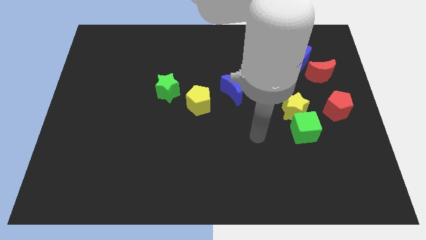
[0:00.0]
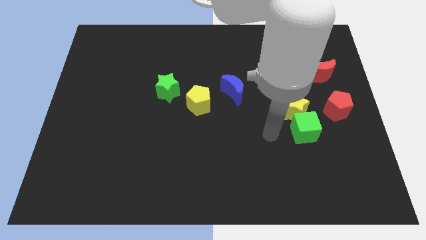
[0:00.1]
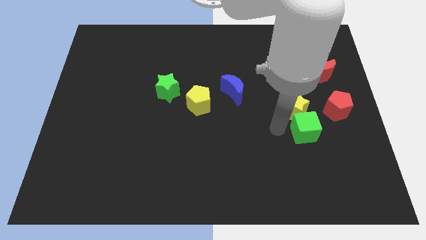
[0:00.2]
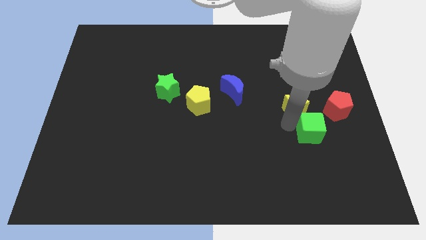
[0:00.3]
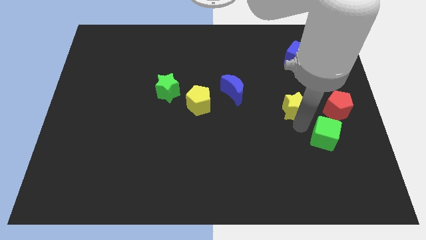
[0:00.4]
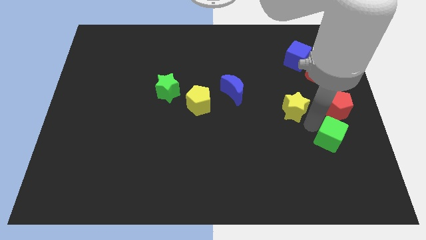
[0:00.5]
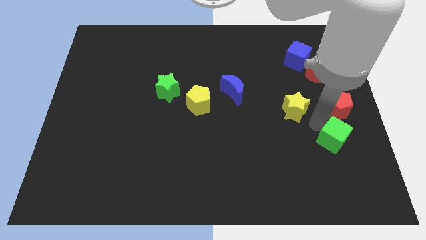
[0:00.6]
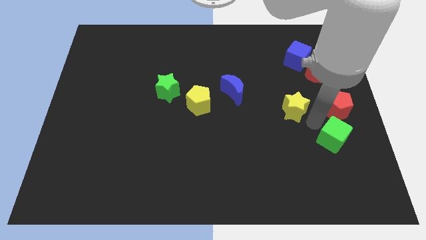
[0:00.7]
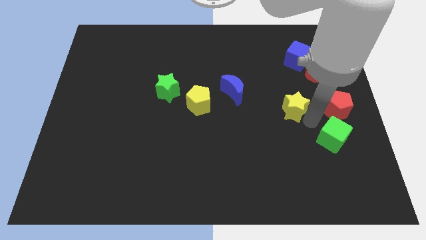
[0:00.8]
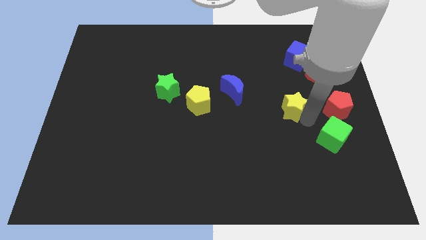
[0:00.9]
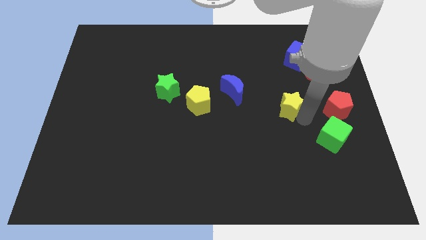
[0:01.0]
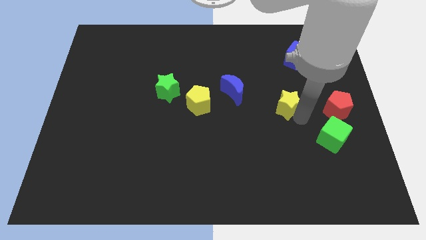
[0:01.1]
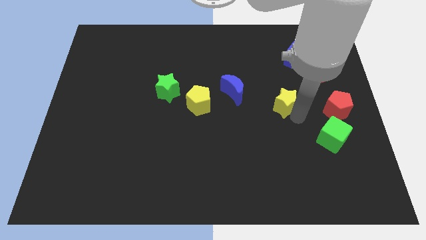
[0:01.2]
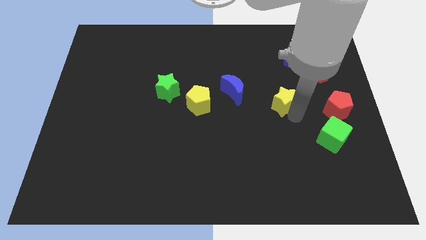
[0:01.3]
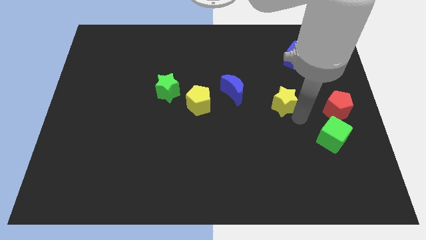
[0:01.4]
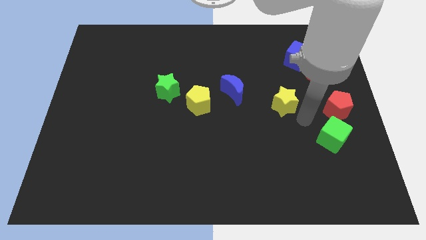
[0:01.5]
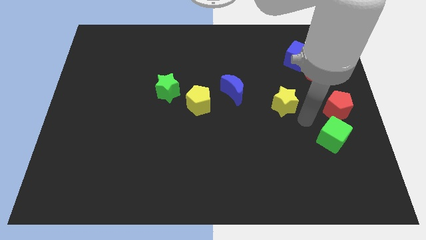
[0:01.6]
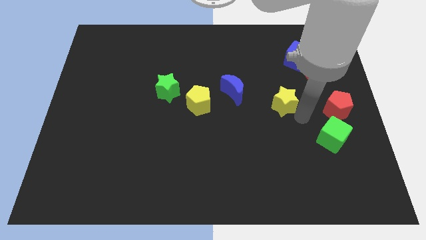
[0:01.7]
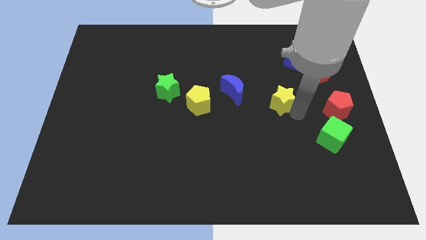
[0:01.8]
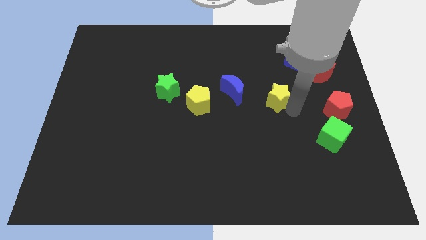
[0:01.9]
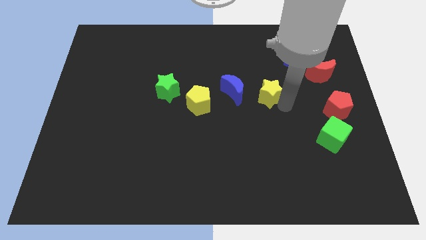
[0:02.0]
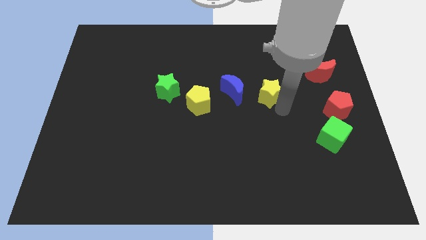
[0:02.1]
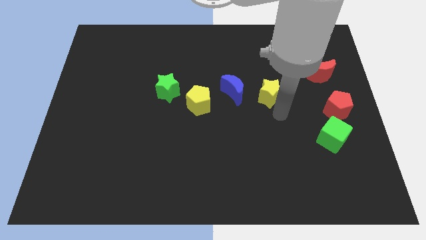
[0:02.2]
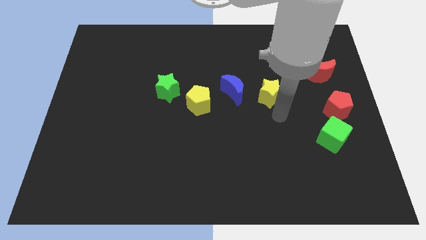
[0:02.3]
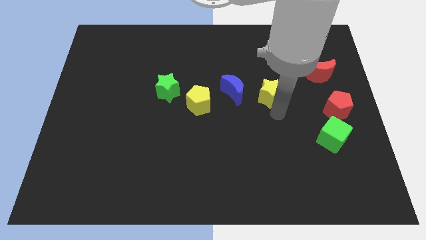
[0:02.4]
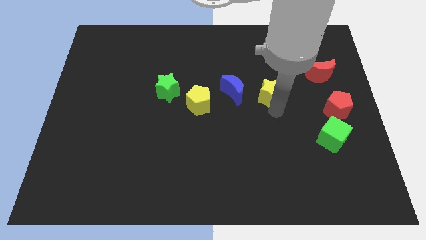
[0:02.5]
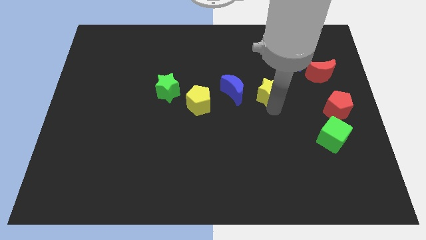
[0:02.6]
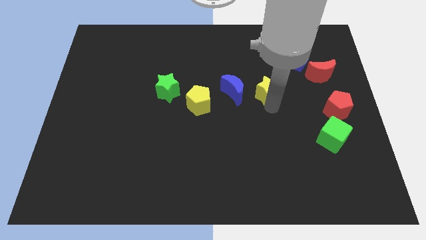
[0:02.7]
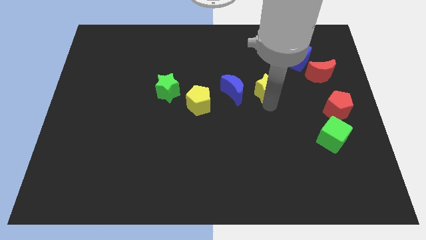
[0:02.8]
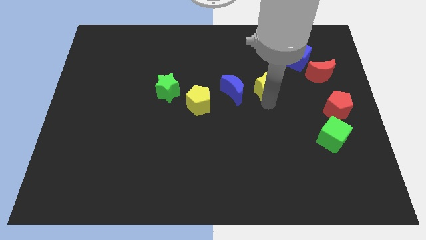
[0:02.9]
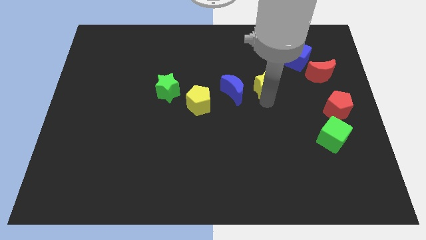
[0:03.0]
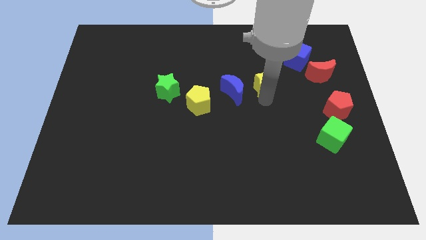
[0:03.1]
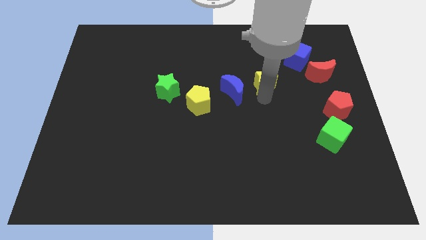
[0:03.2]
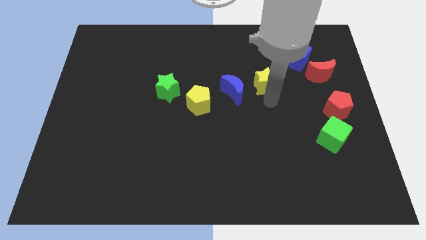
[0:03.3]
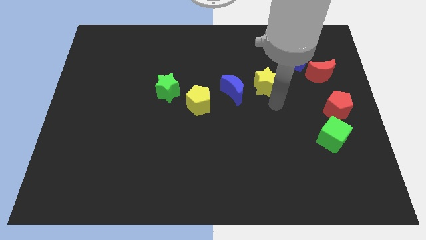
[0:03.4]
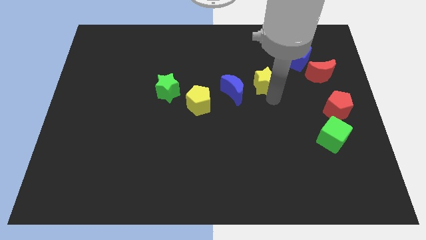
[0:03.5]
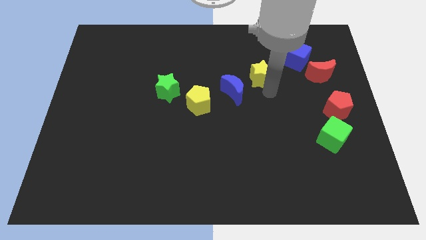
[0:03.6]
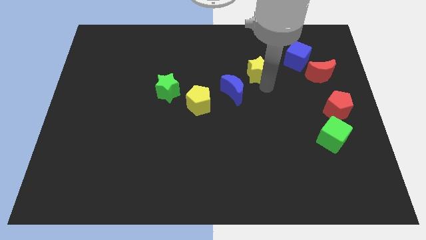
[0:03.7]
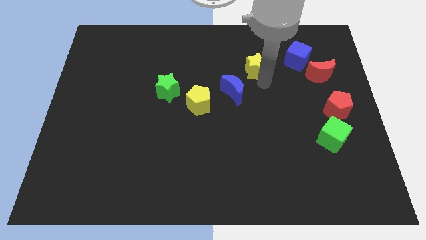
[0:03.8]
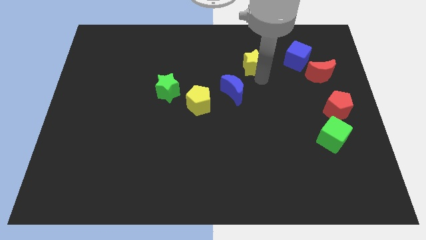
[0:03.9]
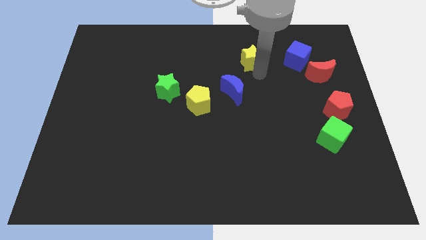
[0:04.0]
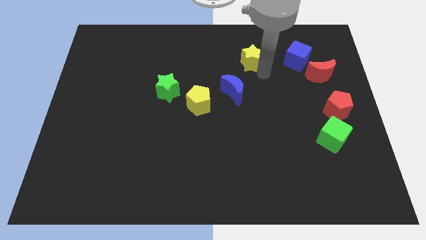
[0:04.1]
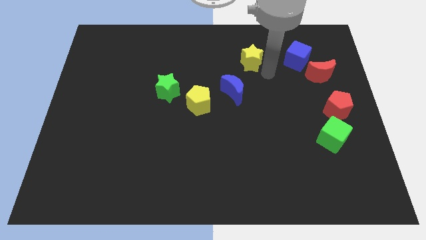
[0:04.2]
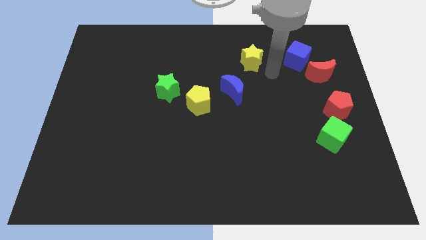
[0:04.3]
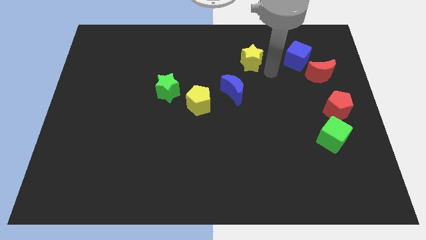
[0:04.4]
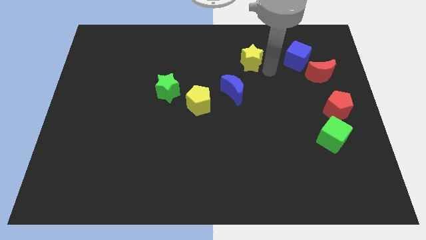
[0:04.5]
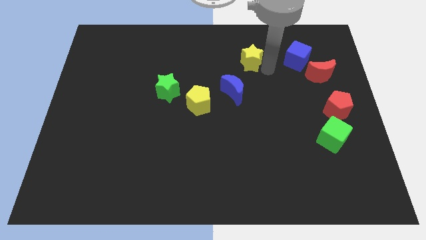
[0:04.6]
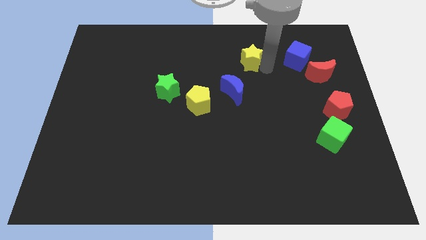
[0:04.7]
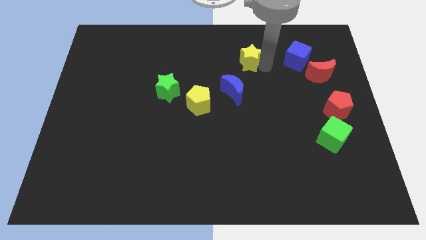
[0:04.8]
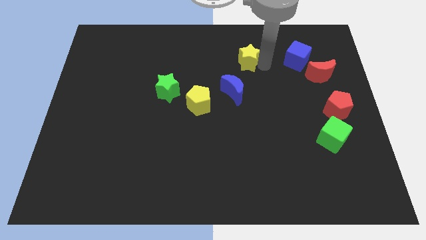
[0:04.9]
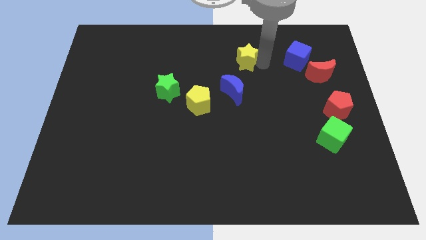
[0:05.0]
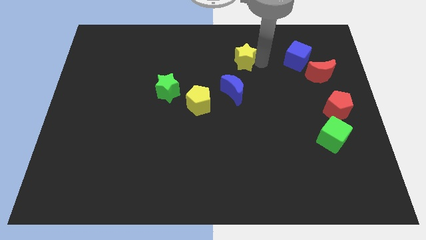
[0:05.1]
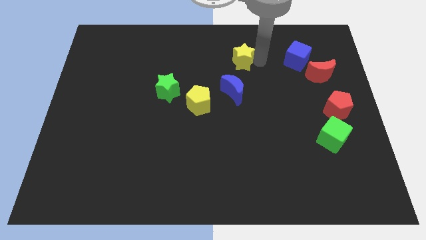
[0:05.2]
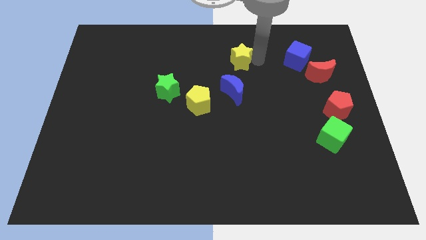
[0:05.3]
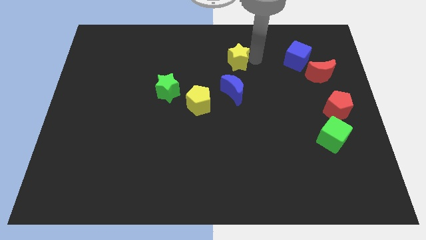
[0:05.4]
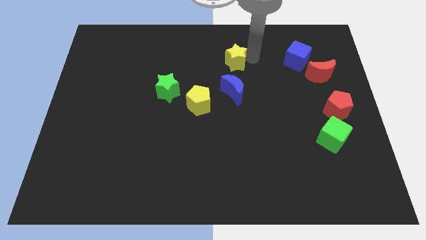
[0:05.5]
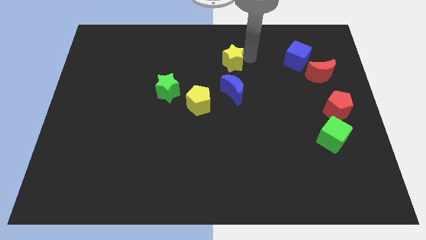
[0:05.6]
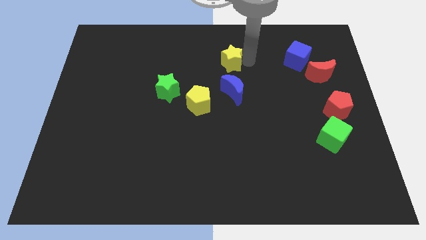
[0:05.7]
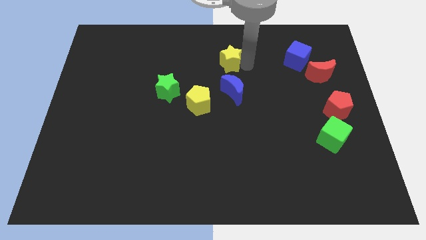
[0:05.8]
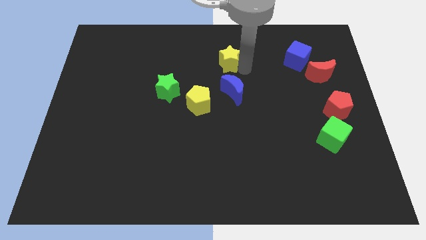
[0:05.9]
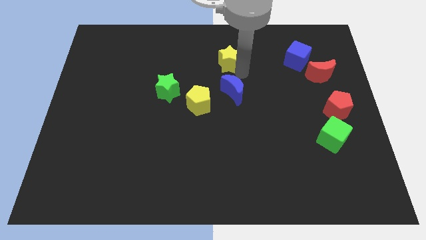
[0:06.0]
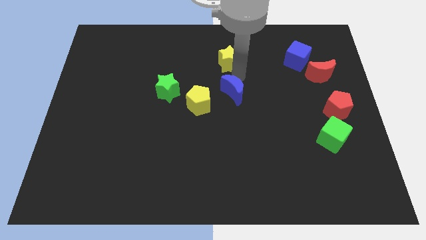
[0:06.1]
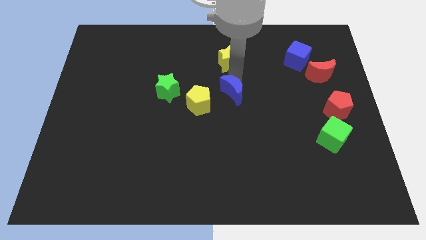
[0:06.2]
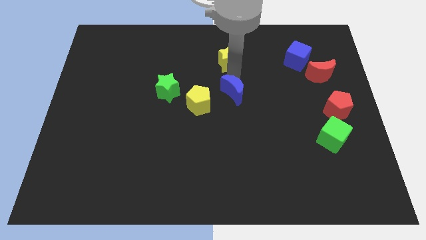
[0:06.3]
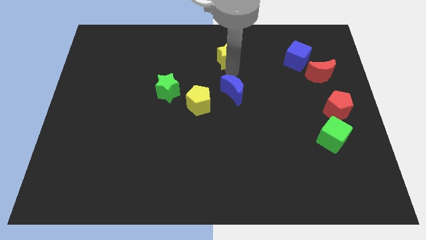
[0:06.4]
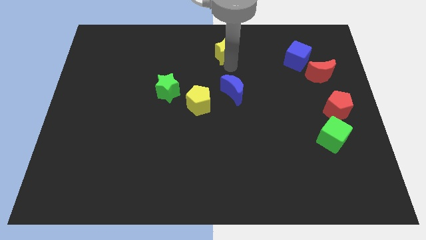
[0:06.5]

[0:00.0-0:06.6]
slide the yellow star to the top side
